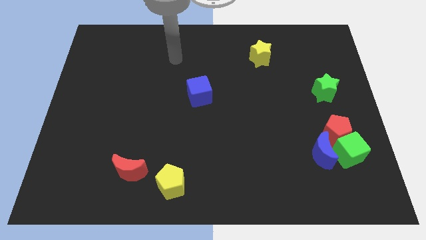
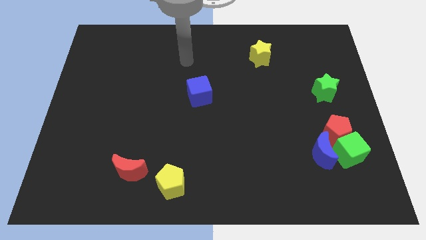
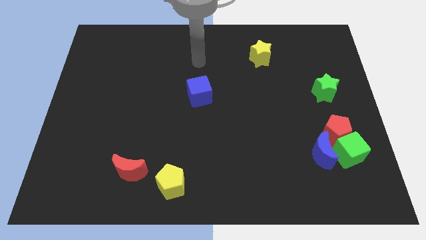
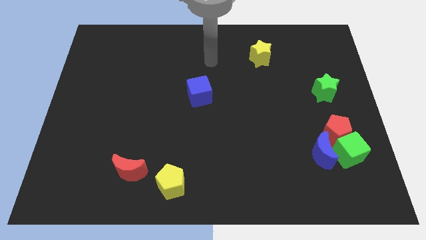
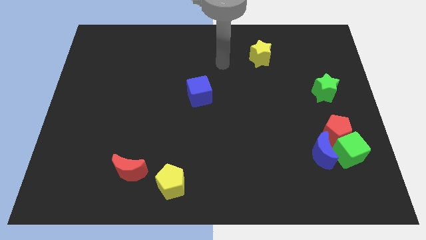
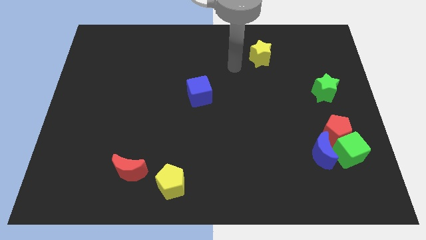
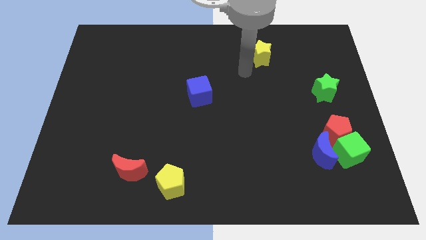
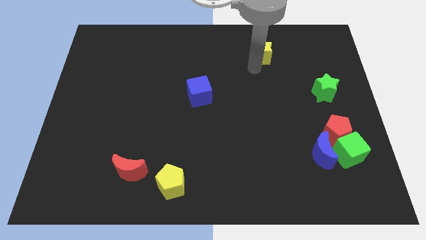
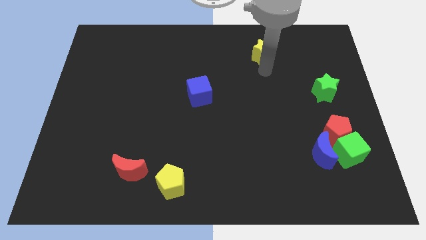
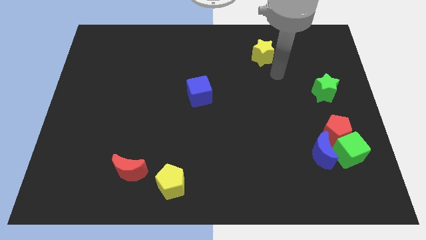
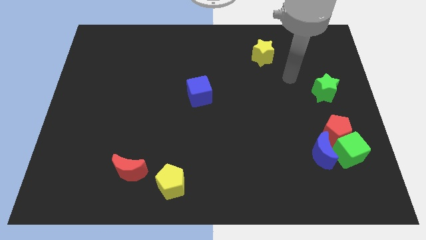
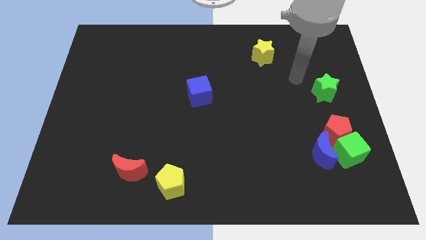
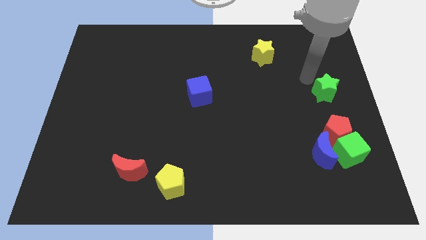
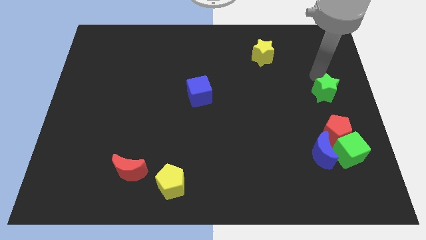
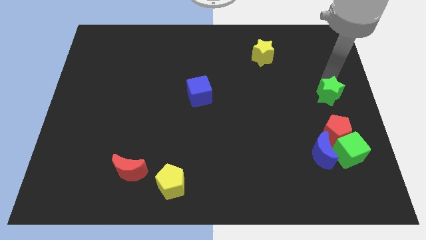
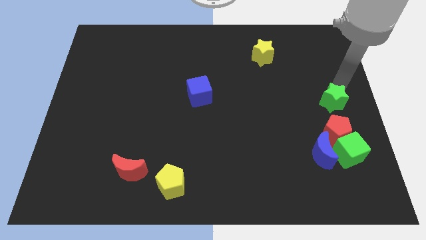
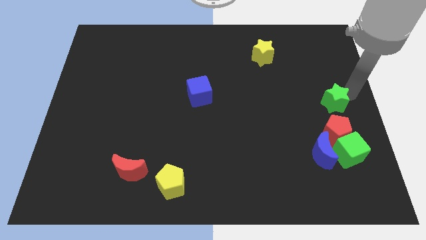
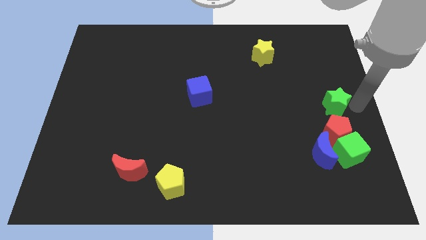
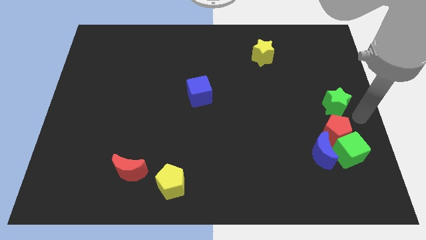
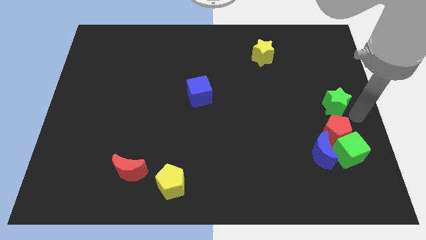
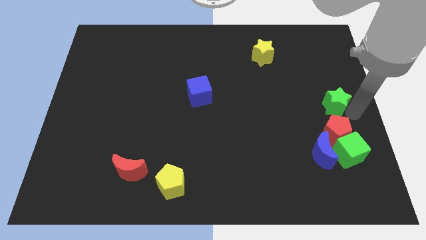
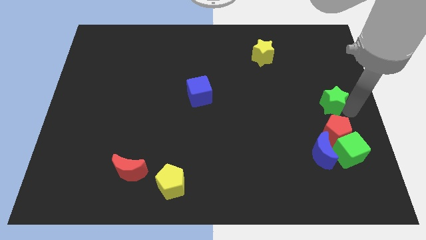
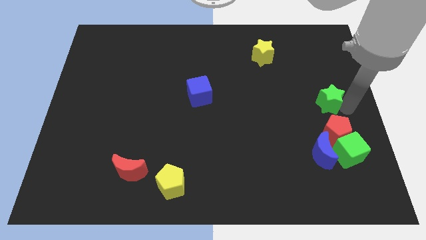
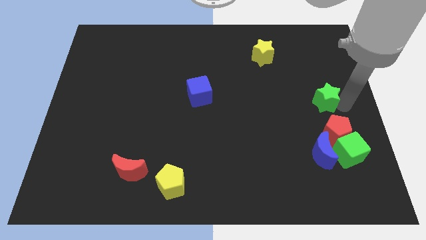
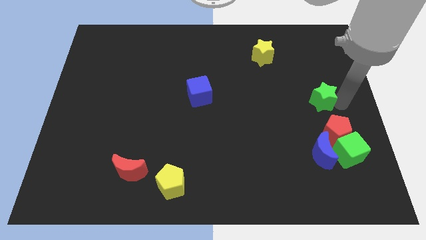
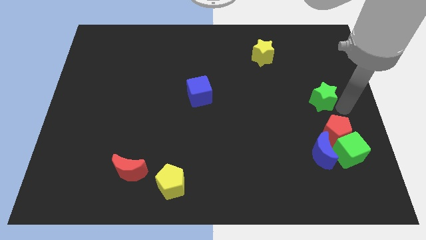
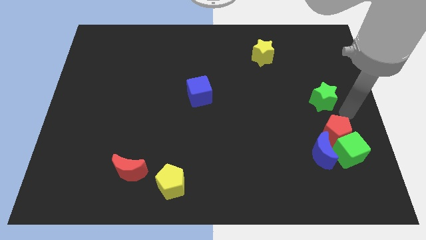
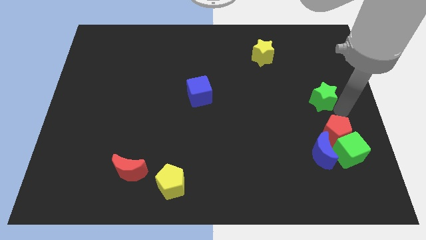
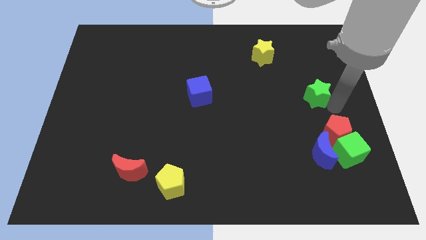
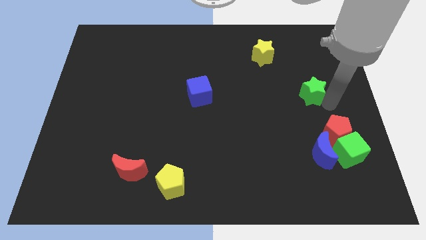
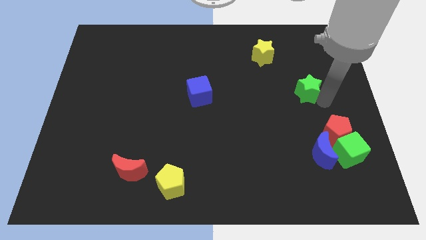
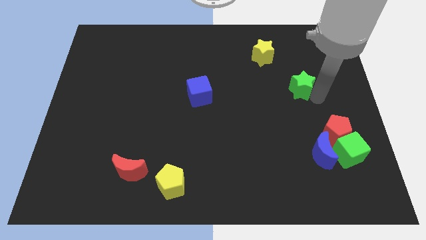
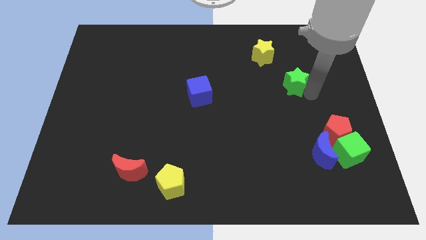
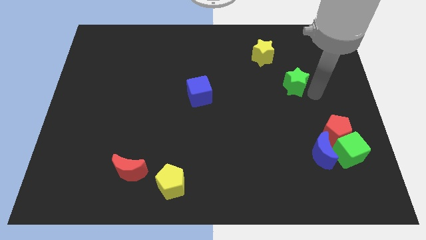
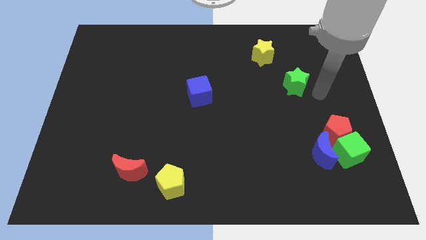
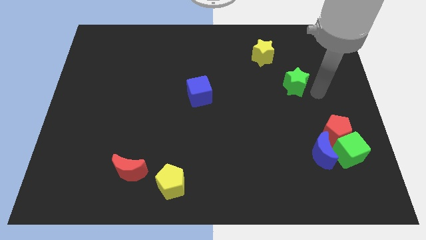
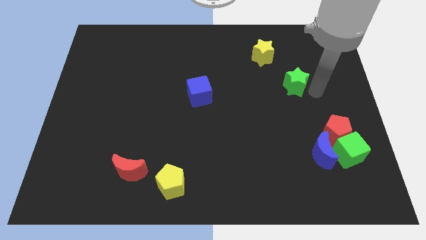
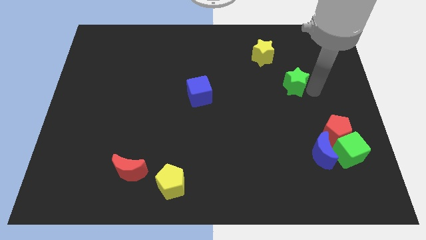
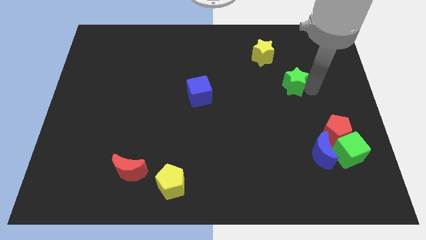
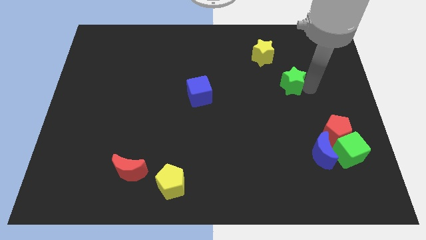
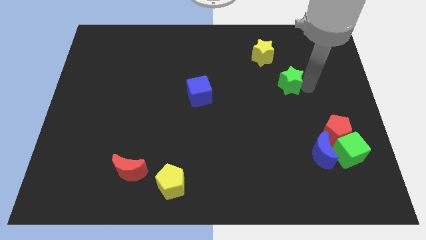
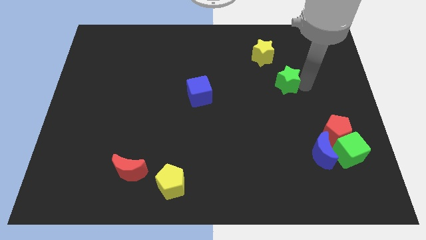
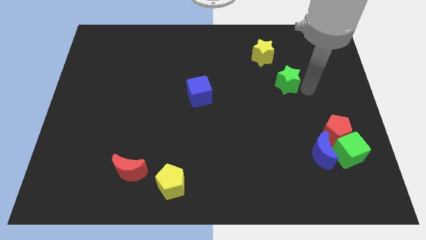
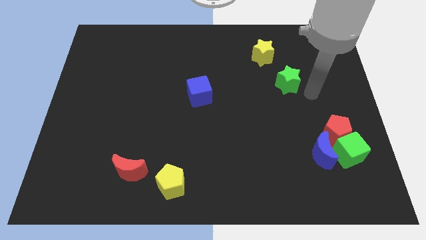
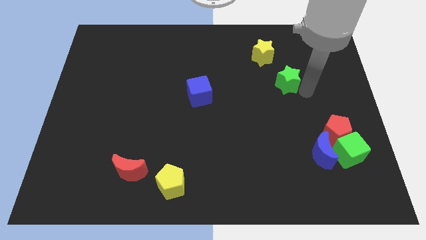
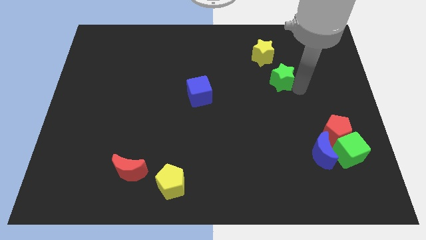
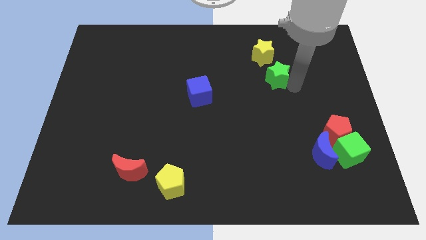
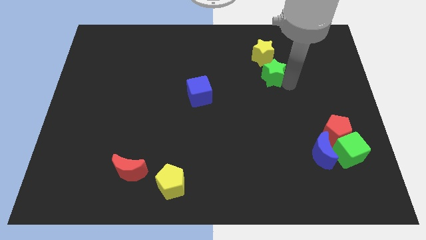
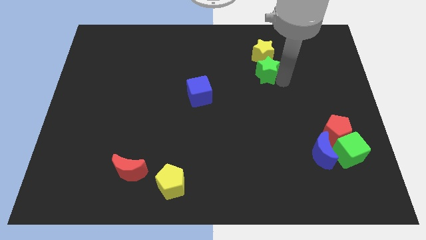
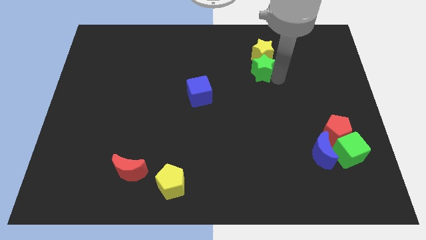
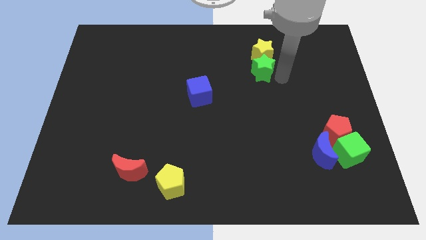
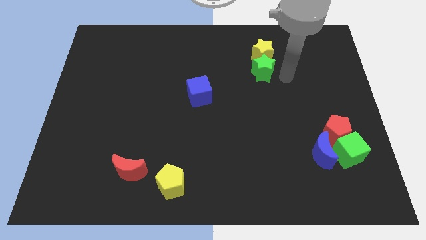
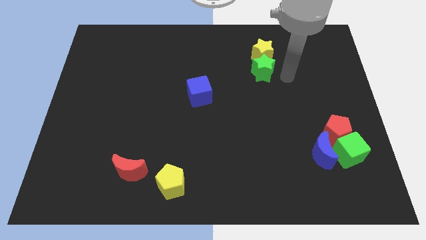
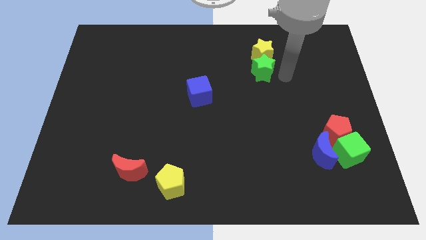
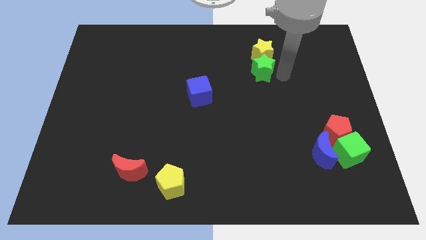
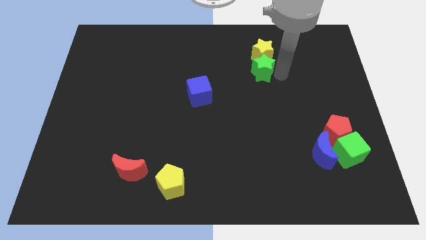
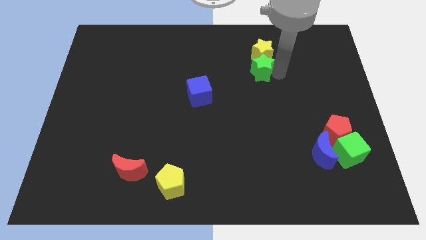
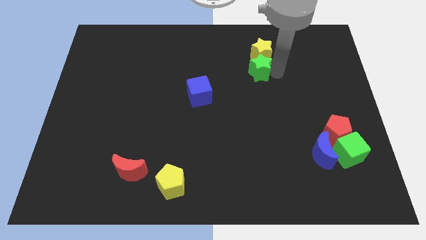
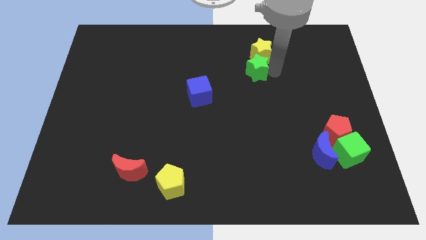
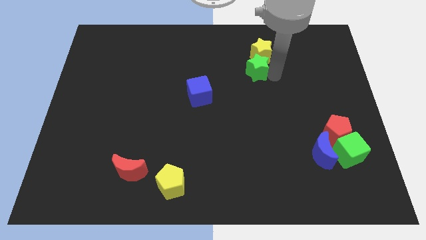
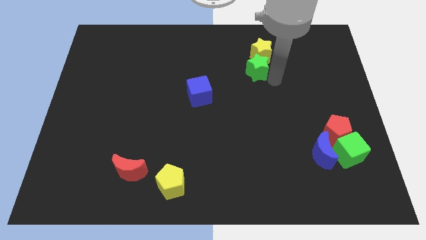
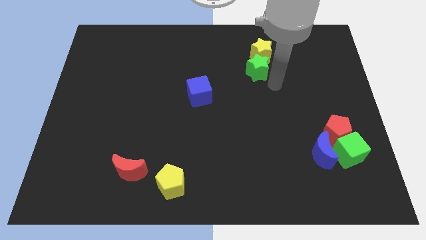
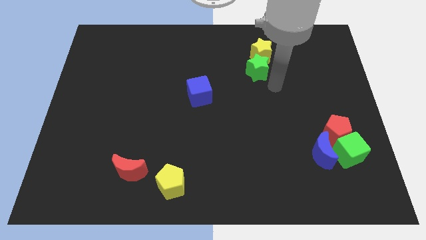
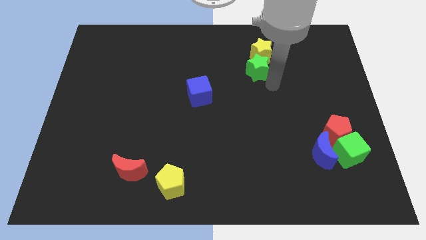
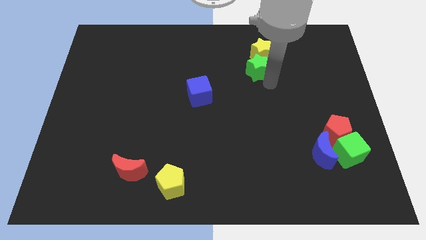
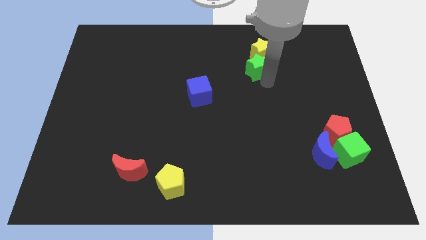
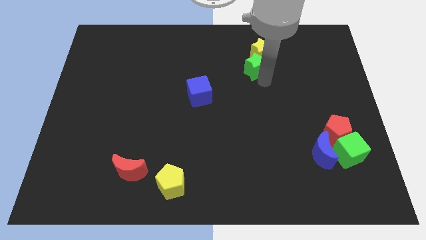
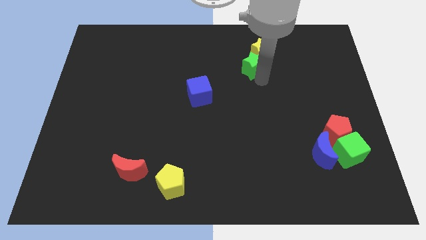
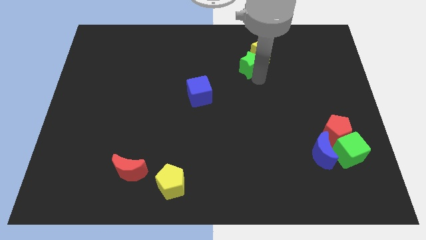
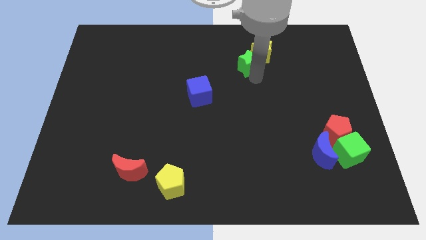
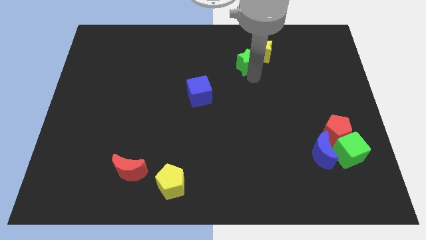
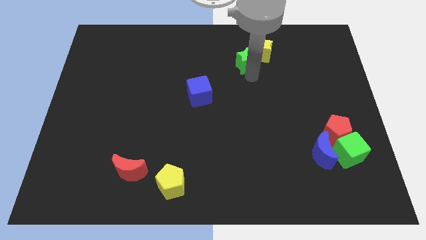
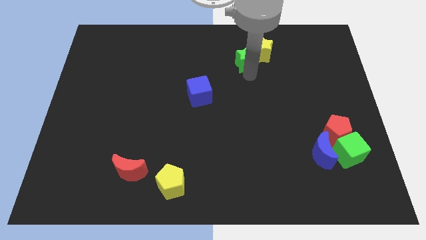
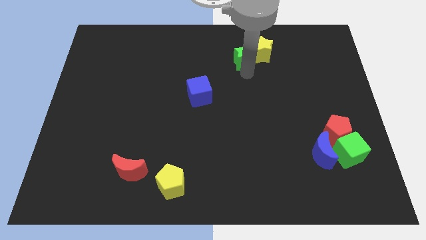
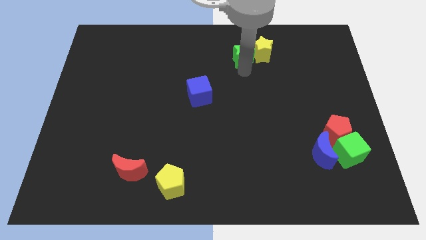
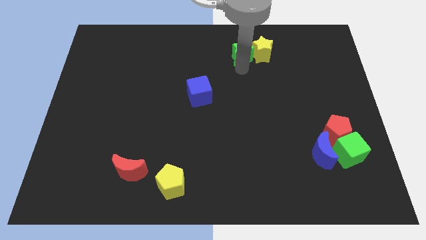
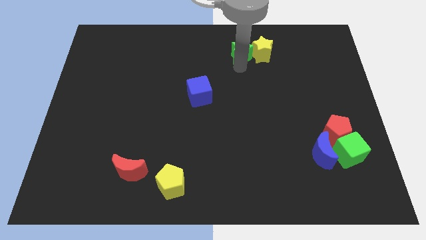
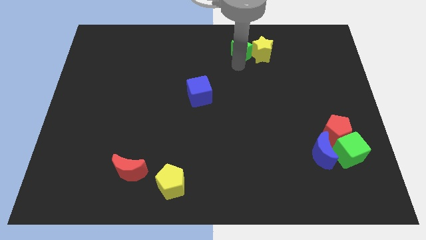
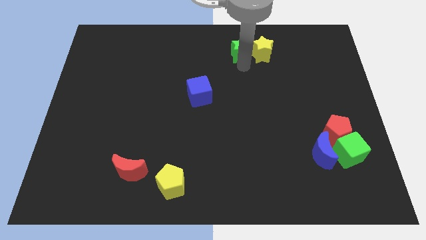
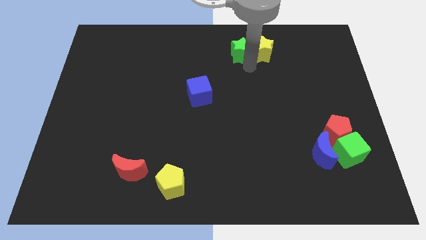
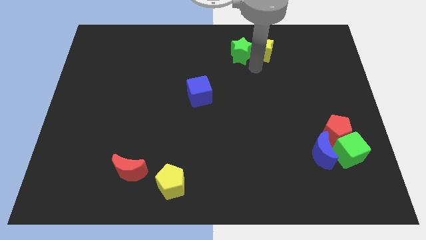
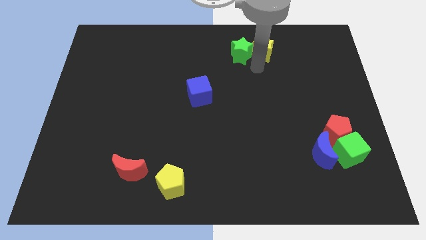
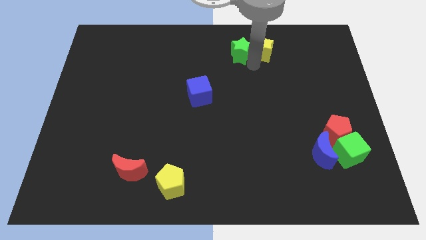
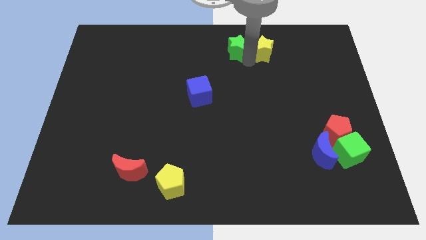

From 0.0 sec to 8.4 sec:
push the green star to the towards your base
